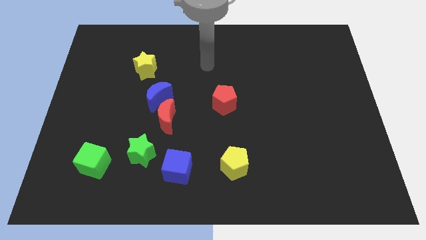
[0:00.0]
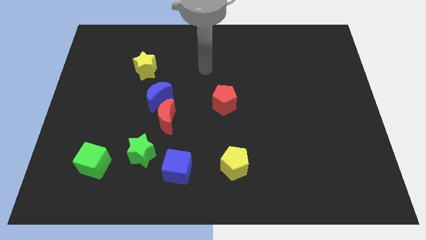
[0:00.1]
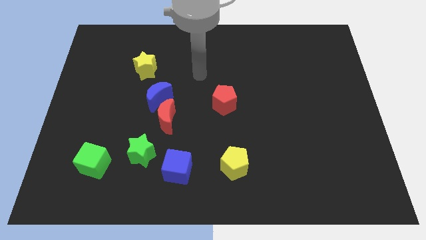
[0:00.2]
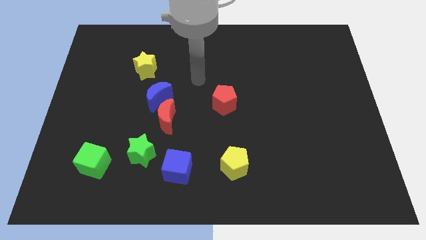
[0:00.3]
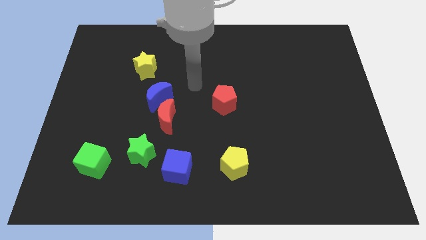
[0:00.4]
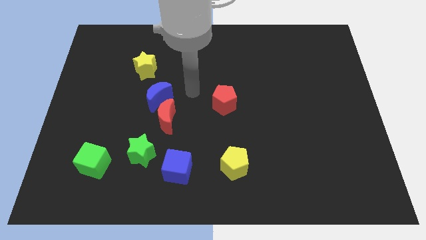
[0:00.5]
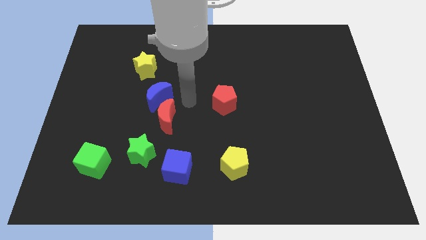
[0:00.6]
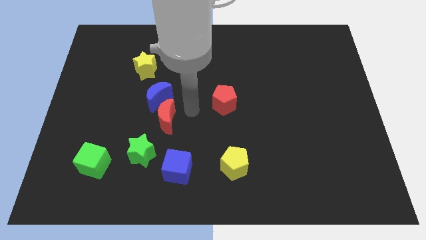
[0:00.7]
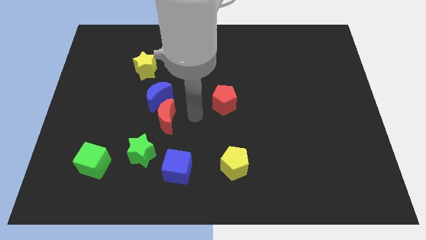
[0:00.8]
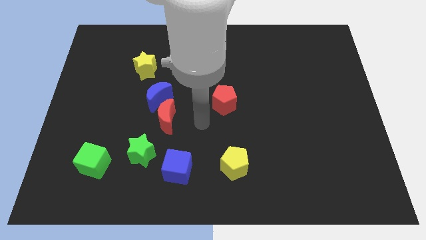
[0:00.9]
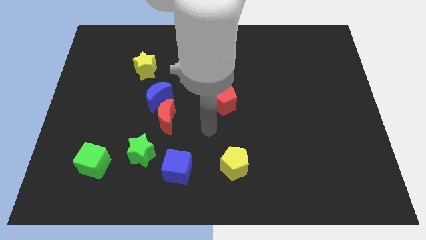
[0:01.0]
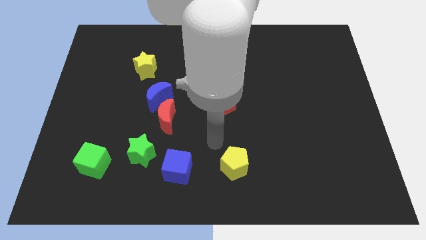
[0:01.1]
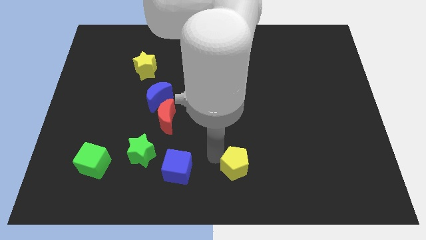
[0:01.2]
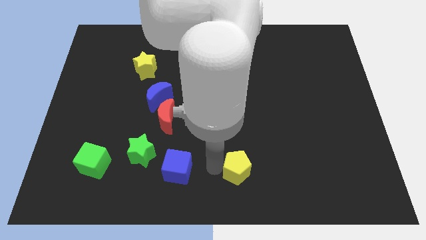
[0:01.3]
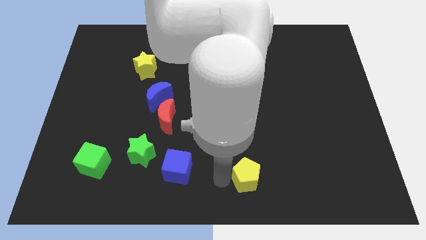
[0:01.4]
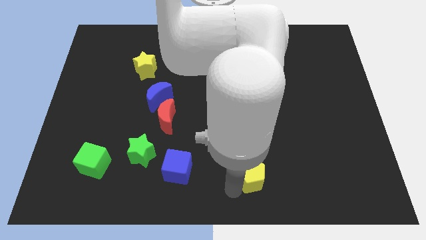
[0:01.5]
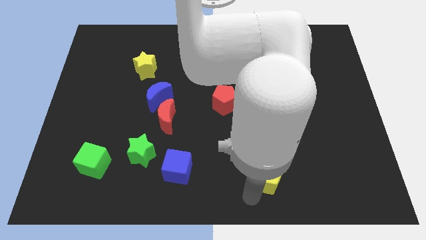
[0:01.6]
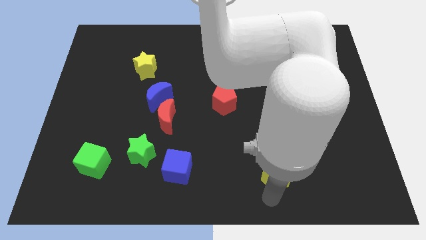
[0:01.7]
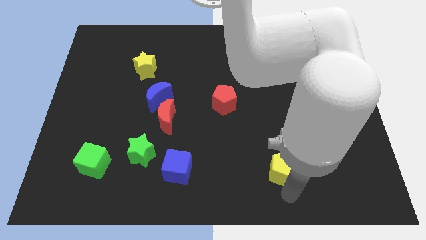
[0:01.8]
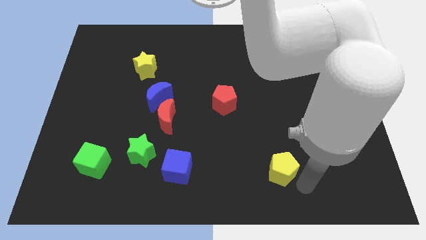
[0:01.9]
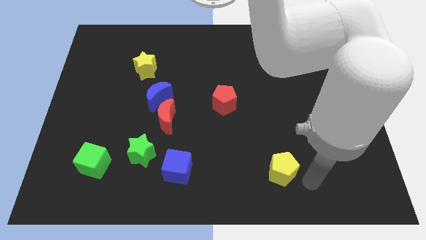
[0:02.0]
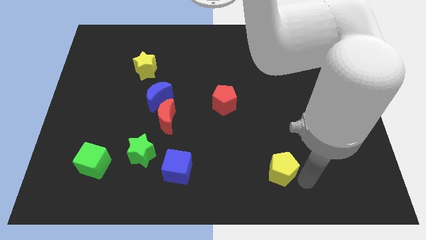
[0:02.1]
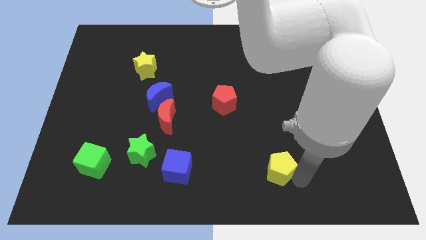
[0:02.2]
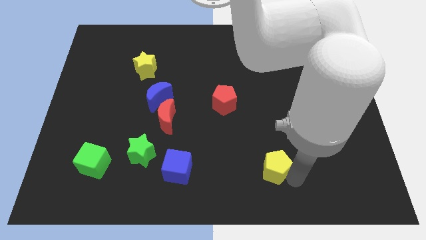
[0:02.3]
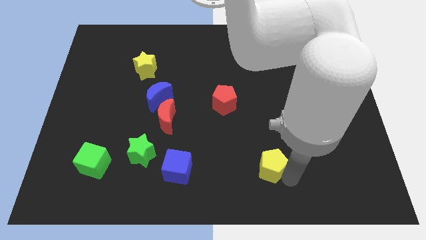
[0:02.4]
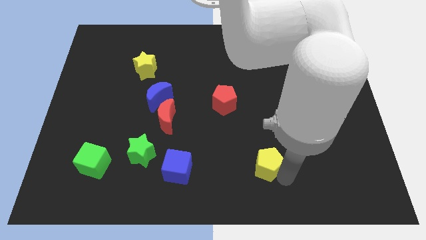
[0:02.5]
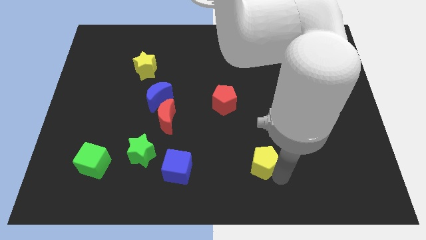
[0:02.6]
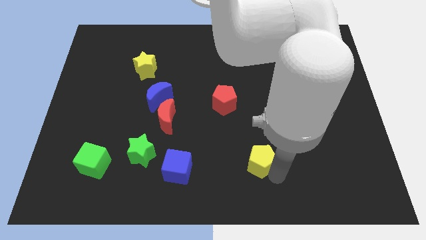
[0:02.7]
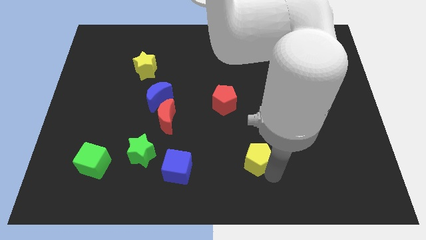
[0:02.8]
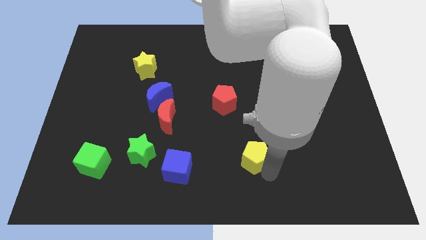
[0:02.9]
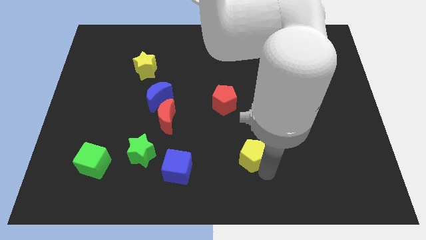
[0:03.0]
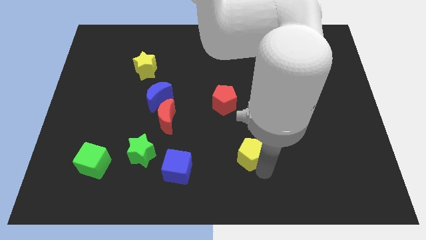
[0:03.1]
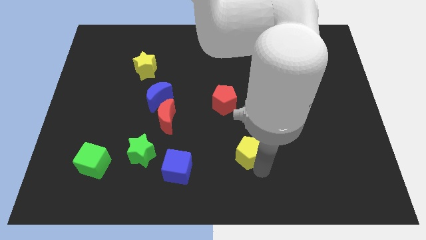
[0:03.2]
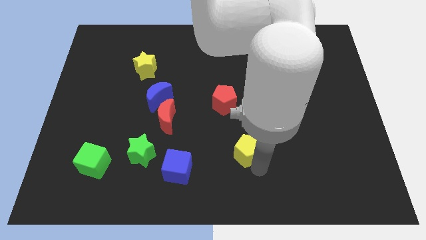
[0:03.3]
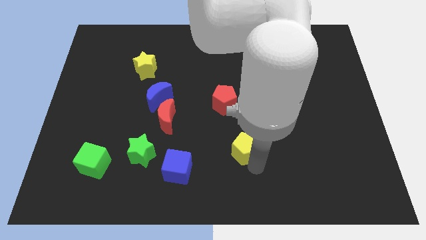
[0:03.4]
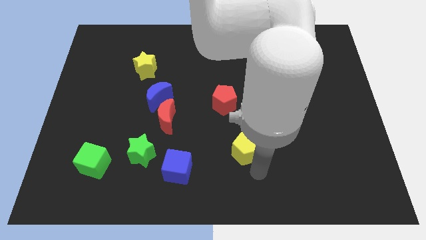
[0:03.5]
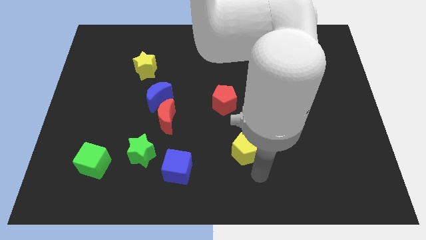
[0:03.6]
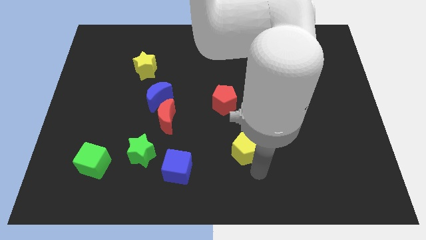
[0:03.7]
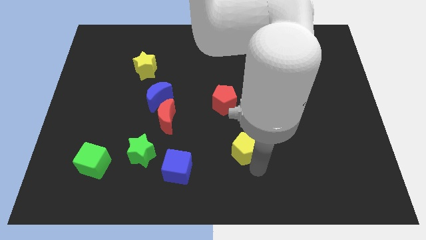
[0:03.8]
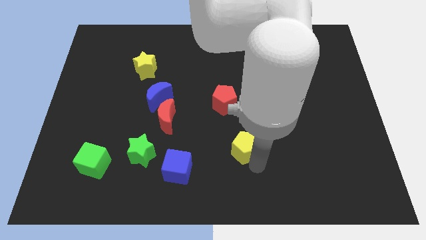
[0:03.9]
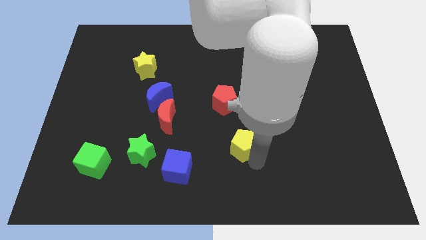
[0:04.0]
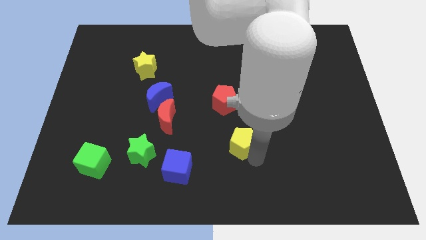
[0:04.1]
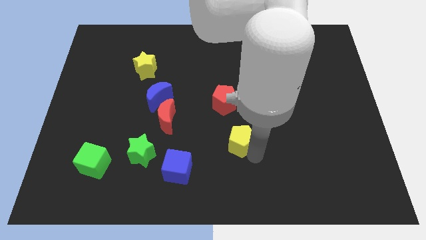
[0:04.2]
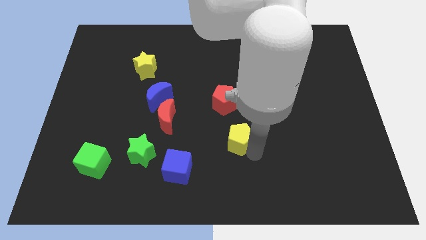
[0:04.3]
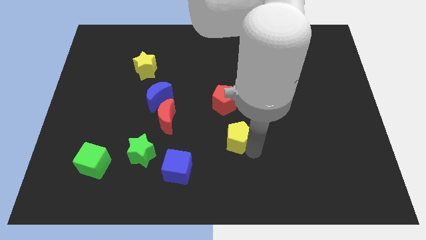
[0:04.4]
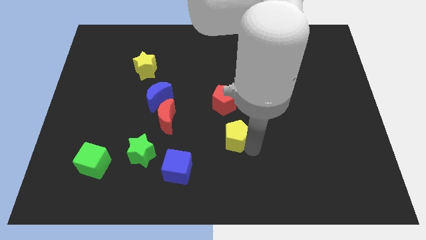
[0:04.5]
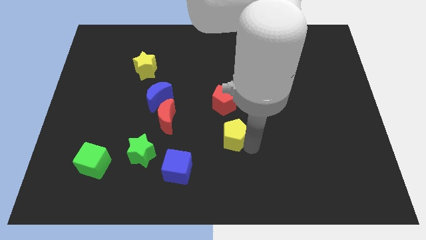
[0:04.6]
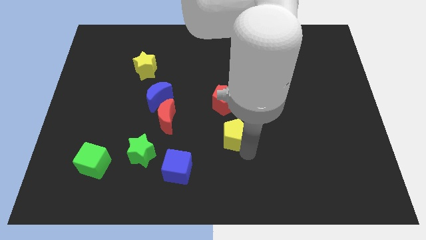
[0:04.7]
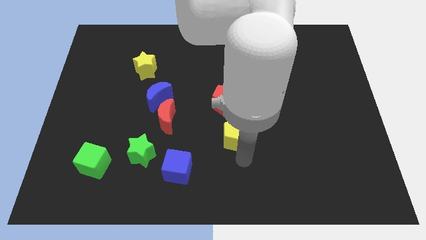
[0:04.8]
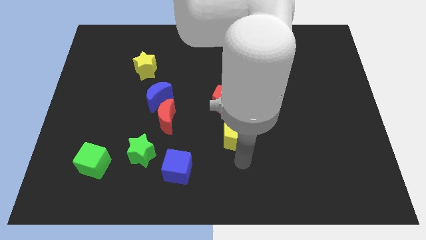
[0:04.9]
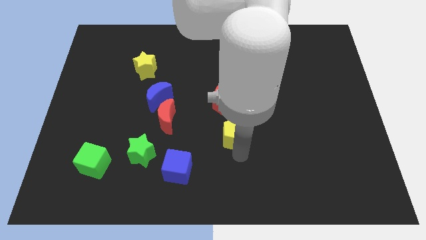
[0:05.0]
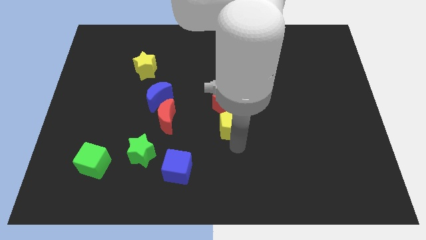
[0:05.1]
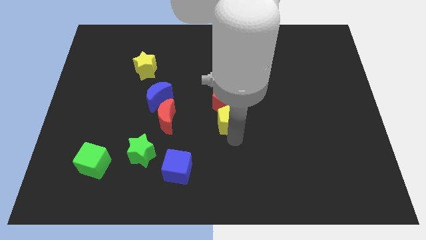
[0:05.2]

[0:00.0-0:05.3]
put the yellow pentagon towards the red pentagon

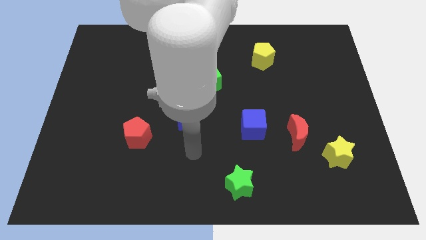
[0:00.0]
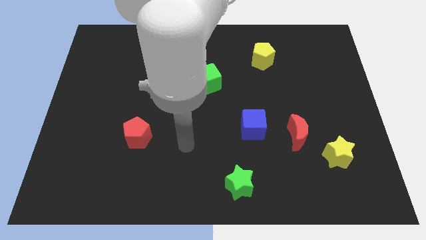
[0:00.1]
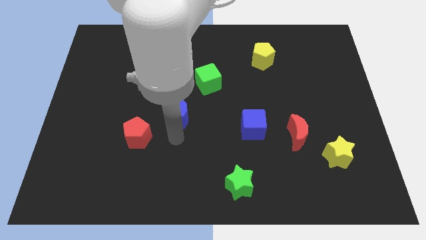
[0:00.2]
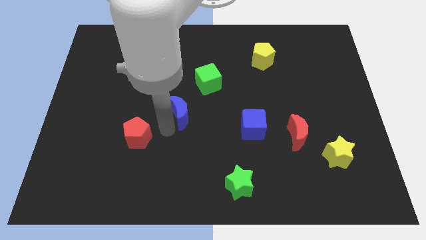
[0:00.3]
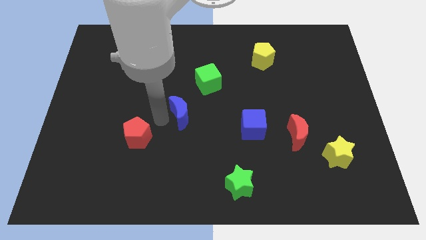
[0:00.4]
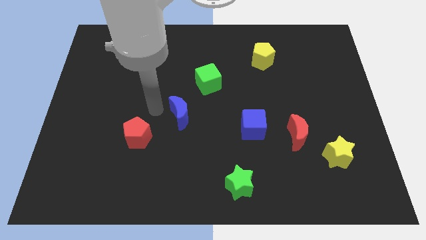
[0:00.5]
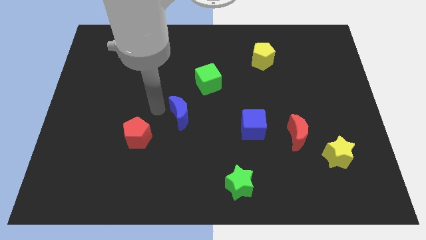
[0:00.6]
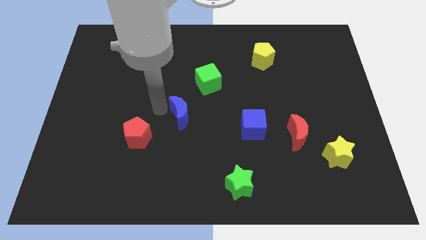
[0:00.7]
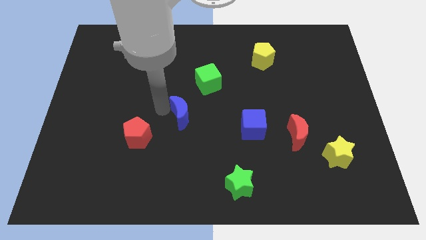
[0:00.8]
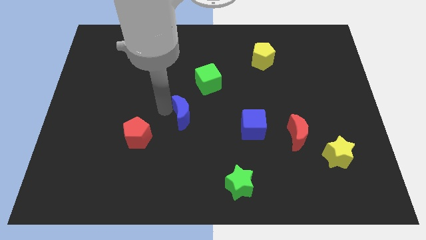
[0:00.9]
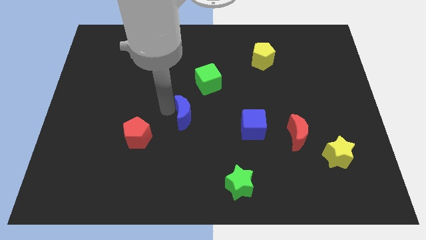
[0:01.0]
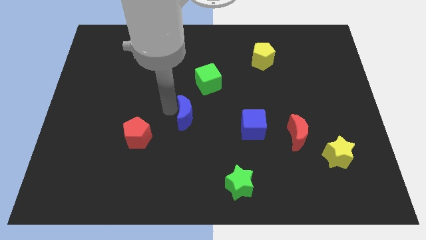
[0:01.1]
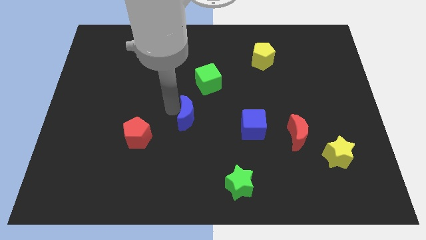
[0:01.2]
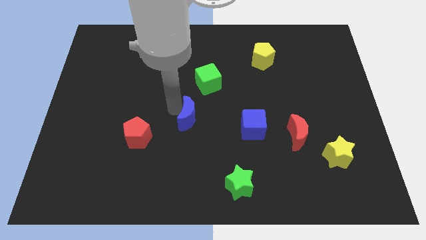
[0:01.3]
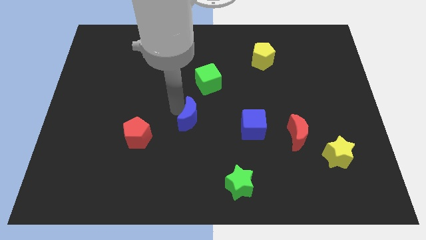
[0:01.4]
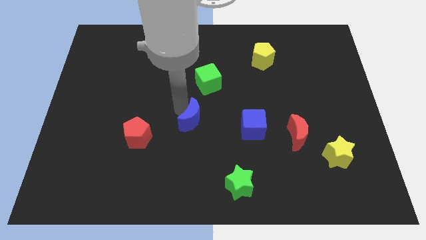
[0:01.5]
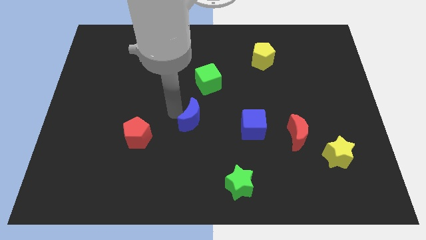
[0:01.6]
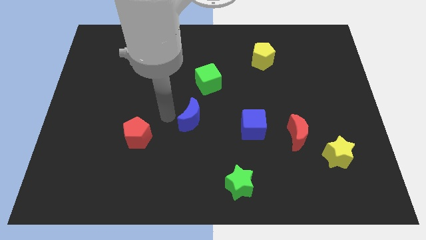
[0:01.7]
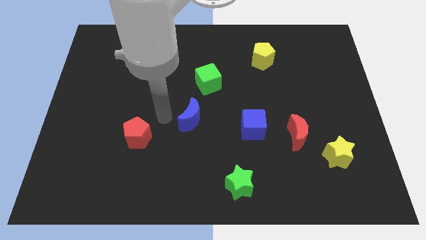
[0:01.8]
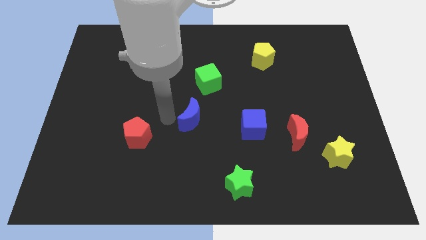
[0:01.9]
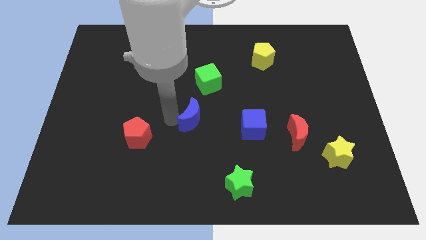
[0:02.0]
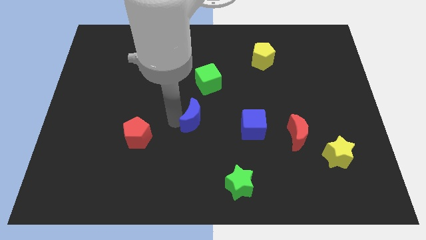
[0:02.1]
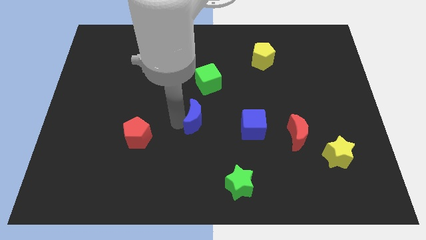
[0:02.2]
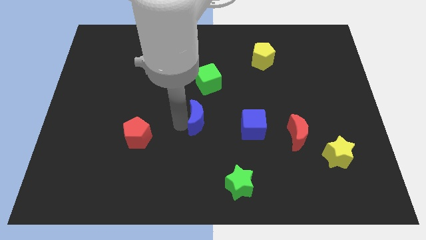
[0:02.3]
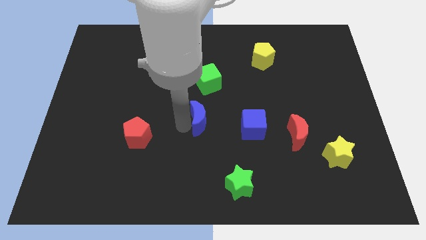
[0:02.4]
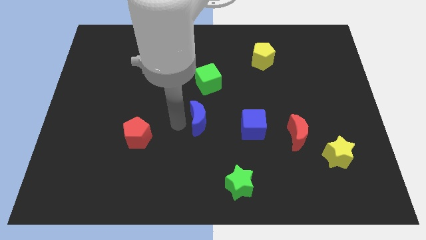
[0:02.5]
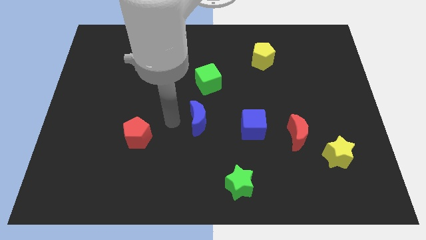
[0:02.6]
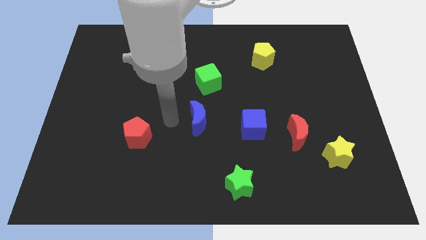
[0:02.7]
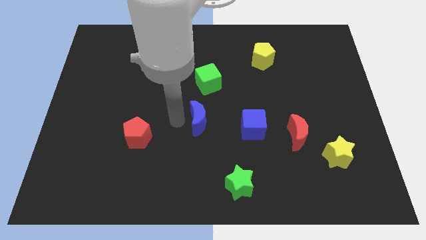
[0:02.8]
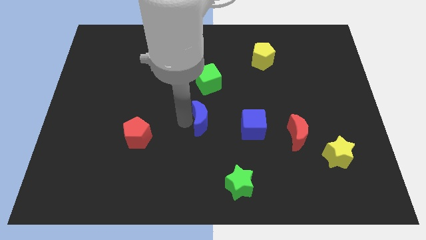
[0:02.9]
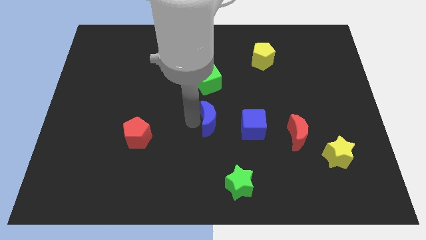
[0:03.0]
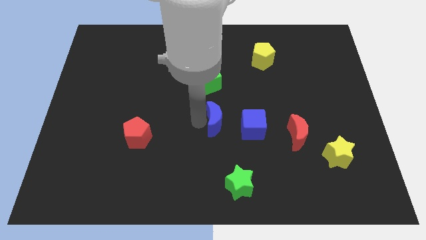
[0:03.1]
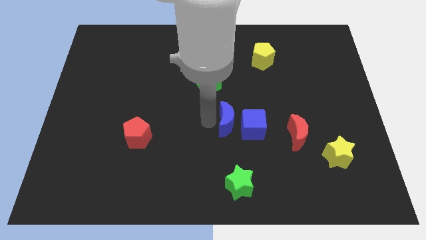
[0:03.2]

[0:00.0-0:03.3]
push the blue moon towards the blue cube
